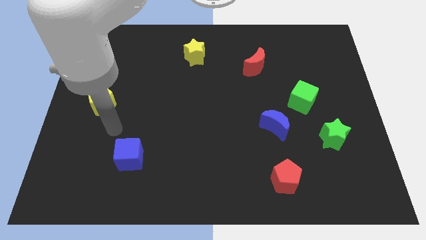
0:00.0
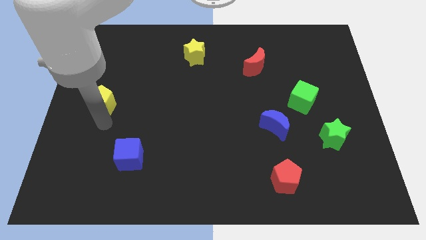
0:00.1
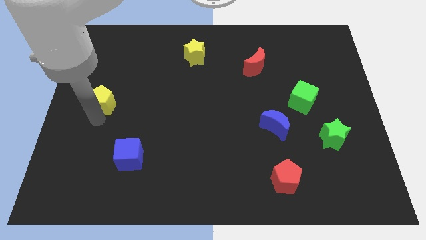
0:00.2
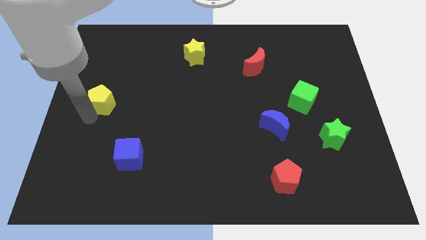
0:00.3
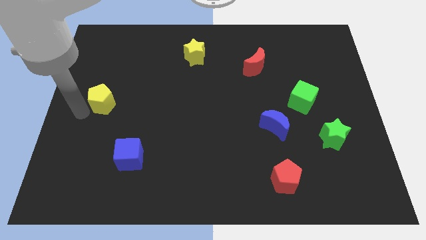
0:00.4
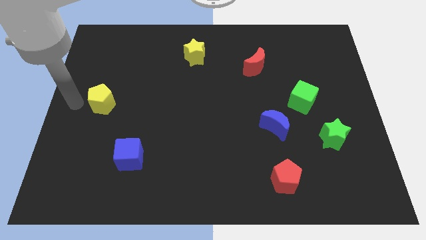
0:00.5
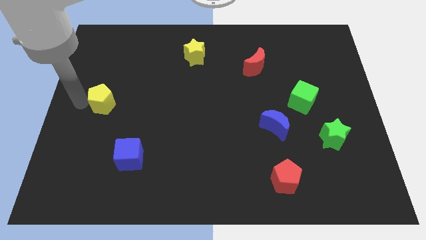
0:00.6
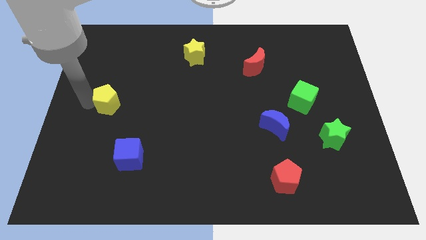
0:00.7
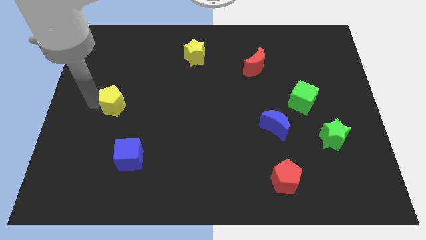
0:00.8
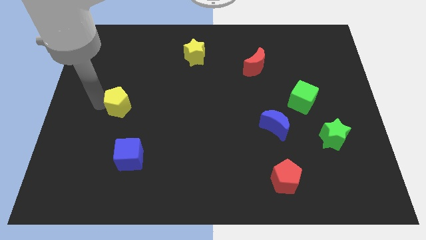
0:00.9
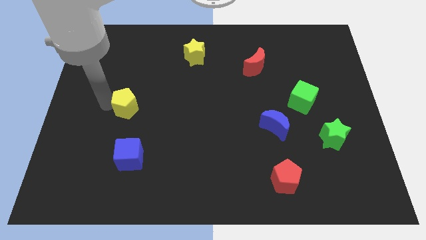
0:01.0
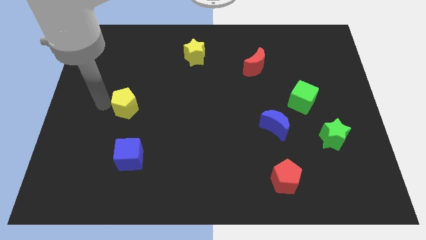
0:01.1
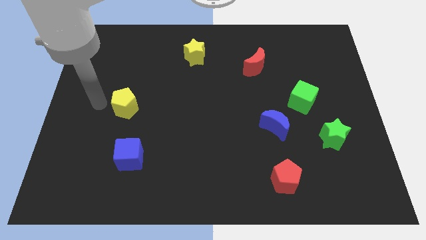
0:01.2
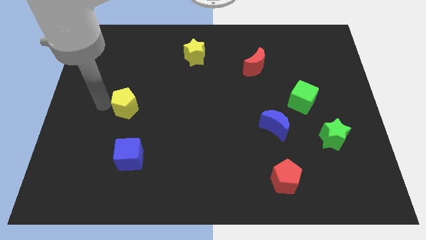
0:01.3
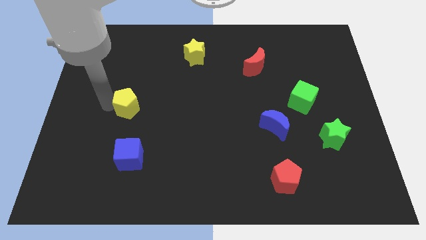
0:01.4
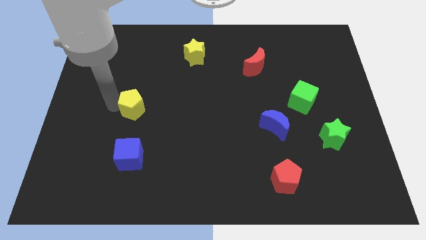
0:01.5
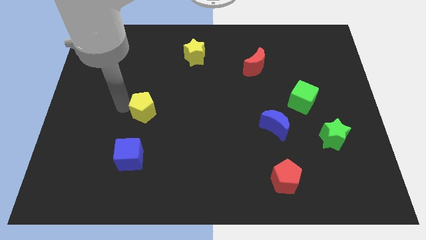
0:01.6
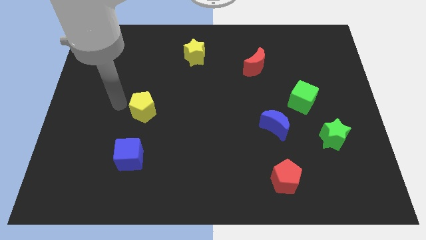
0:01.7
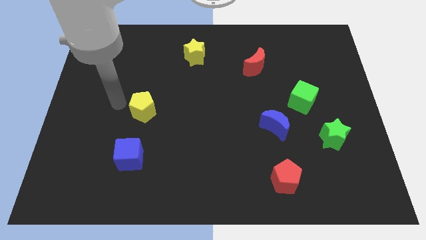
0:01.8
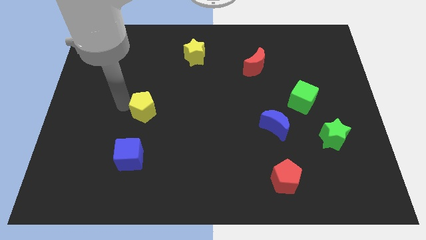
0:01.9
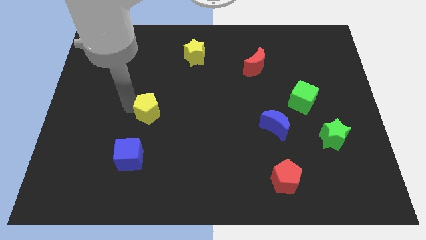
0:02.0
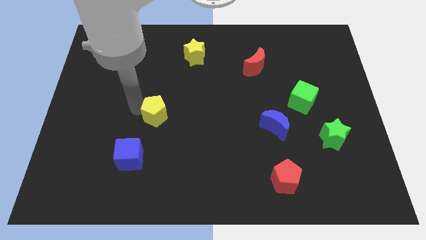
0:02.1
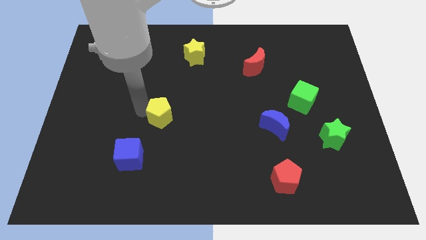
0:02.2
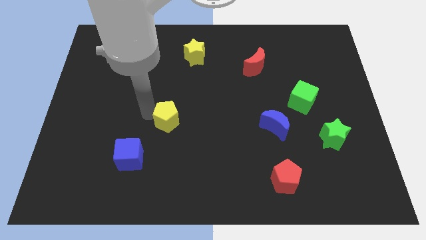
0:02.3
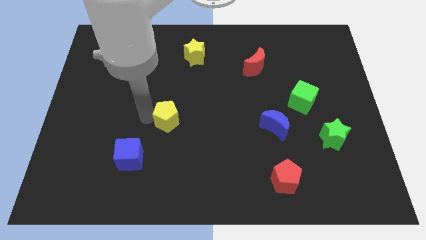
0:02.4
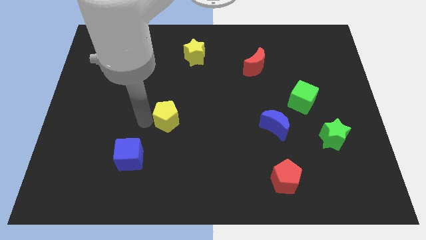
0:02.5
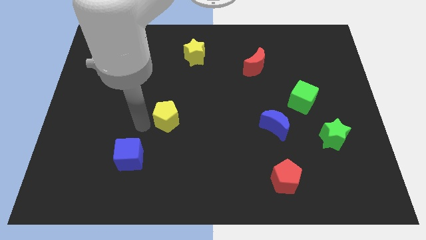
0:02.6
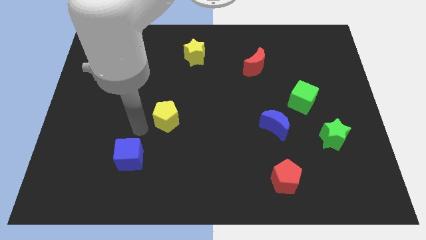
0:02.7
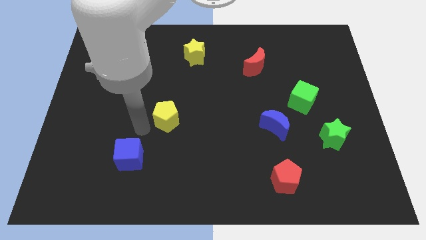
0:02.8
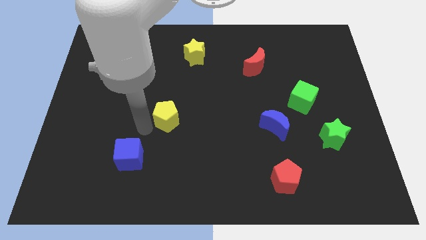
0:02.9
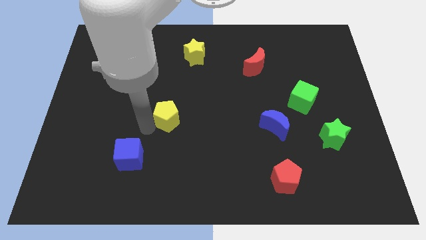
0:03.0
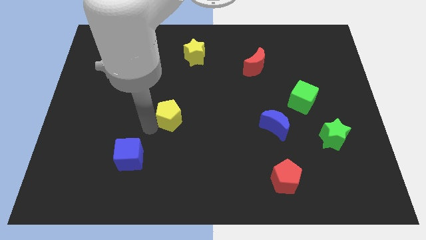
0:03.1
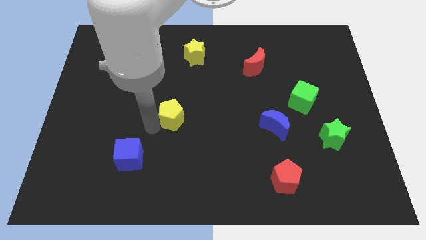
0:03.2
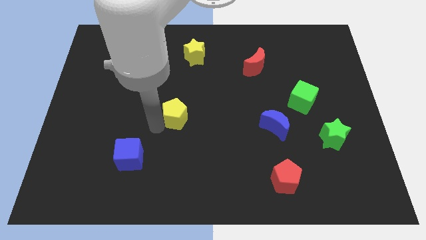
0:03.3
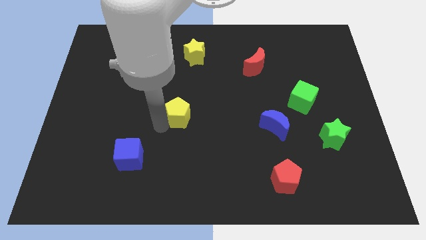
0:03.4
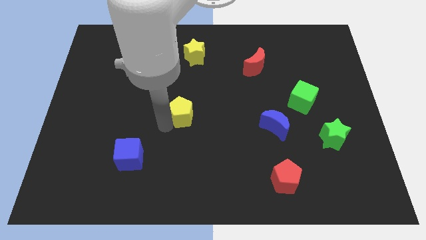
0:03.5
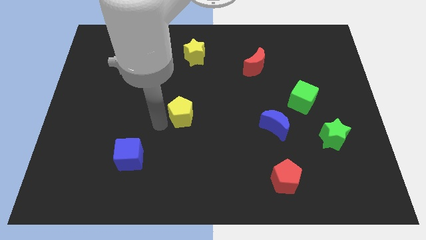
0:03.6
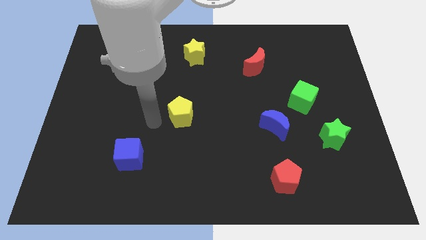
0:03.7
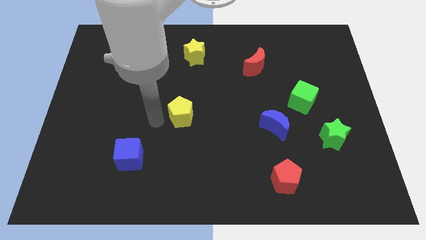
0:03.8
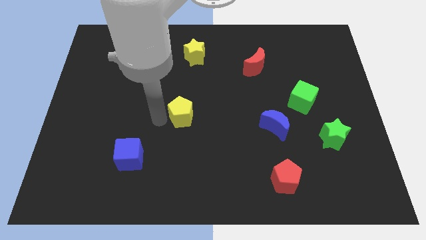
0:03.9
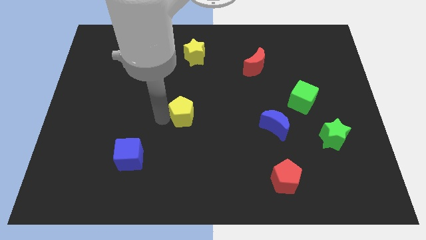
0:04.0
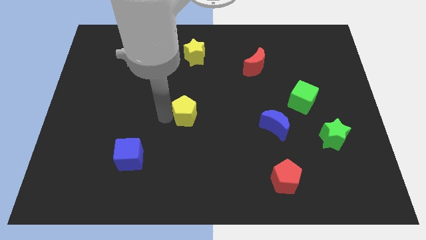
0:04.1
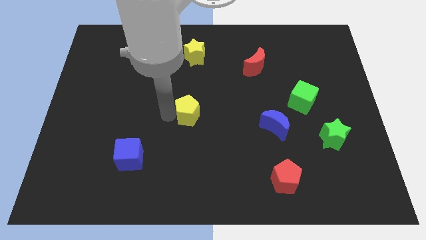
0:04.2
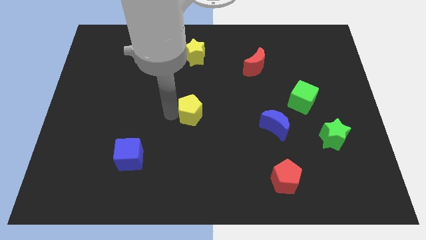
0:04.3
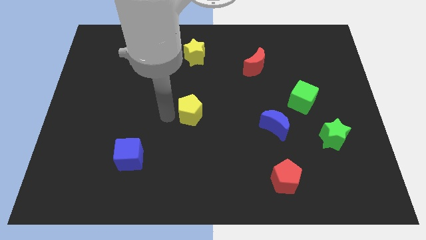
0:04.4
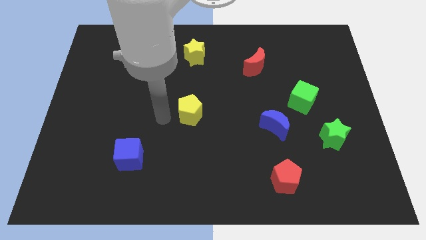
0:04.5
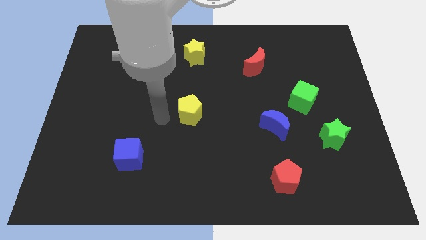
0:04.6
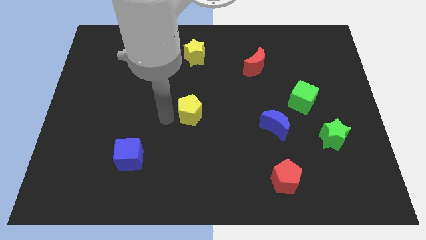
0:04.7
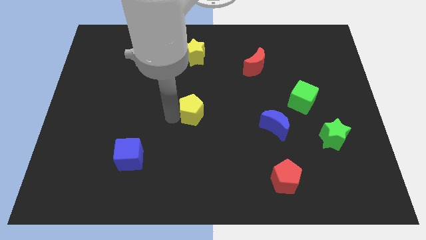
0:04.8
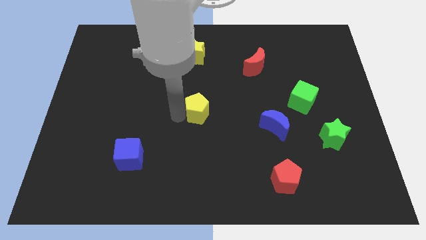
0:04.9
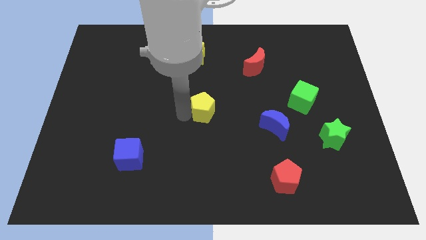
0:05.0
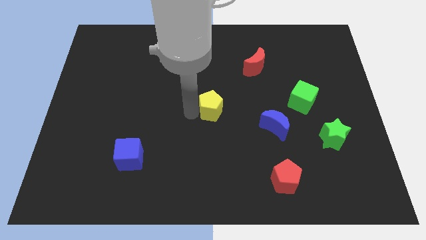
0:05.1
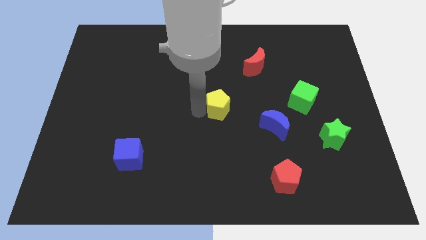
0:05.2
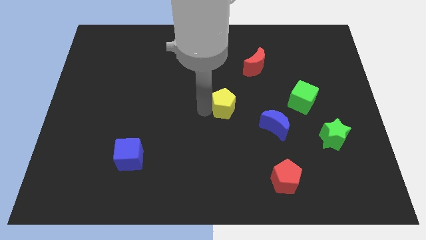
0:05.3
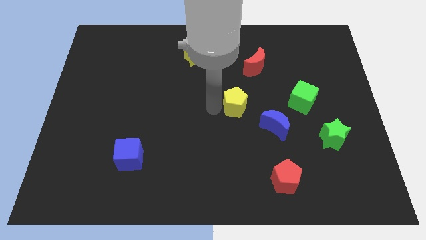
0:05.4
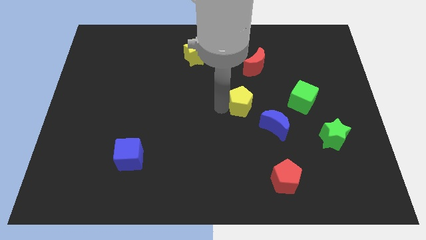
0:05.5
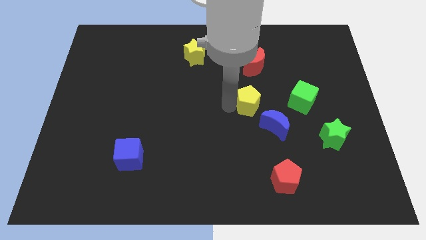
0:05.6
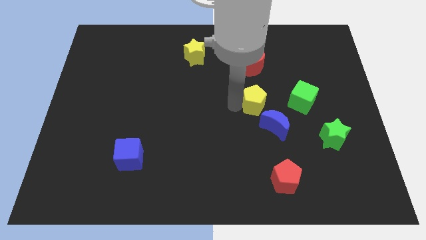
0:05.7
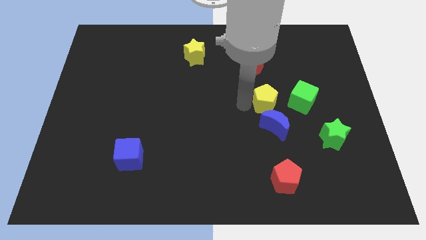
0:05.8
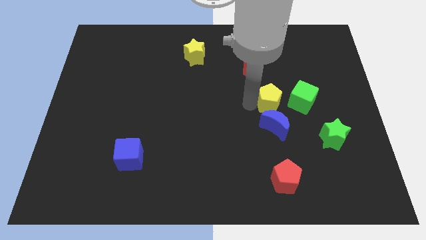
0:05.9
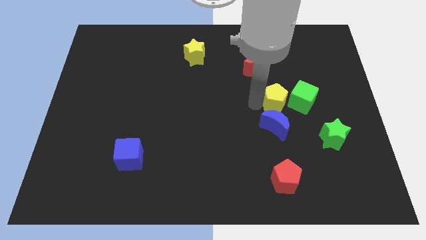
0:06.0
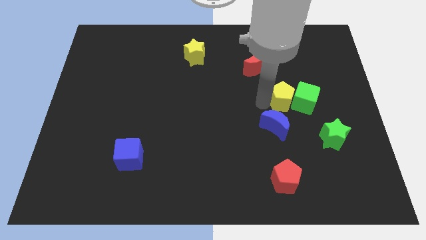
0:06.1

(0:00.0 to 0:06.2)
push the yellow pentagon next to the green cube

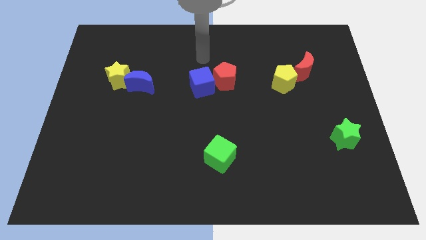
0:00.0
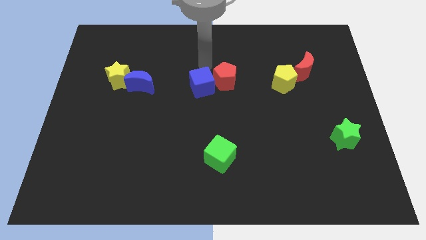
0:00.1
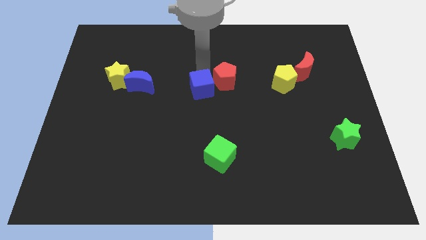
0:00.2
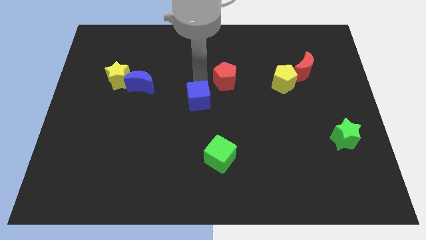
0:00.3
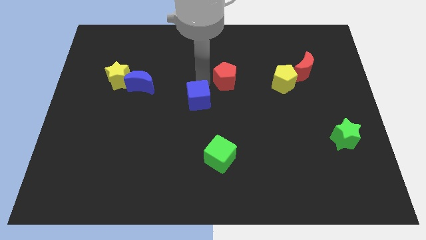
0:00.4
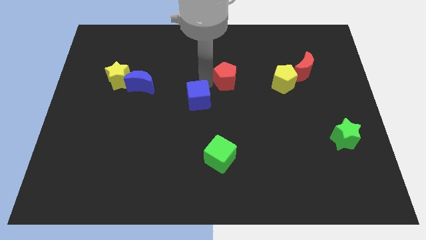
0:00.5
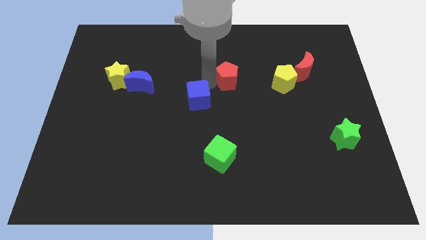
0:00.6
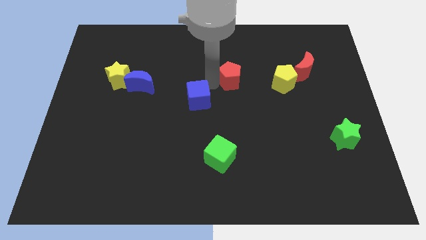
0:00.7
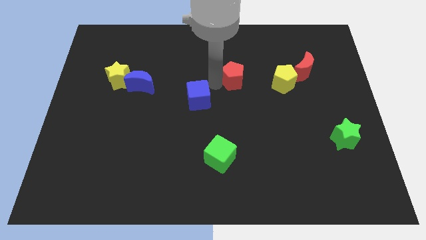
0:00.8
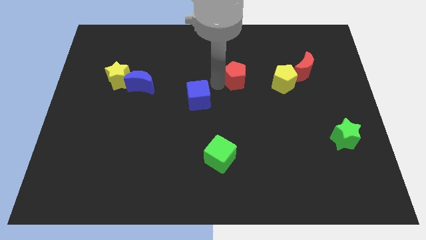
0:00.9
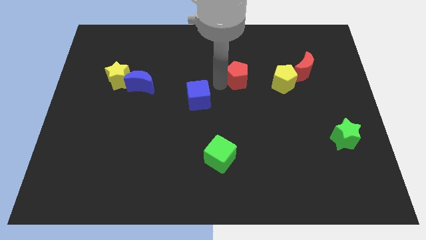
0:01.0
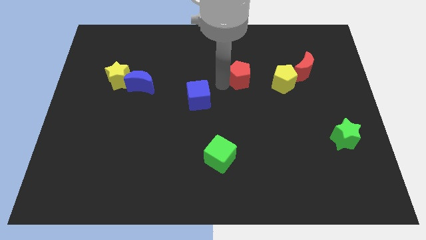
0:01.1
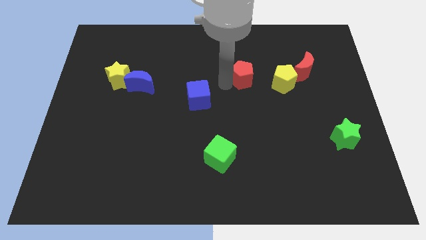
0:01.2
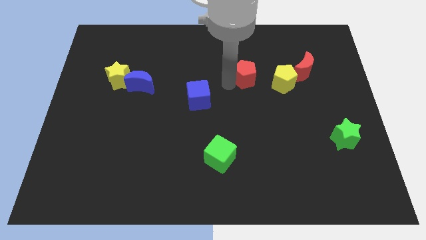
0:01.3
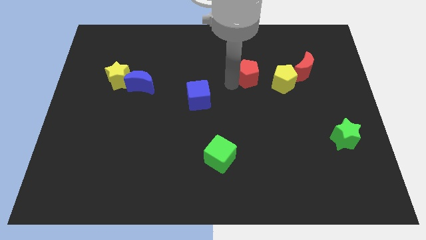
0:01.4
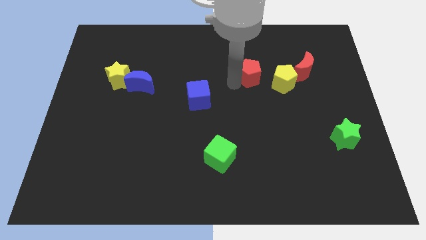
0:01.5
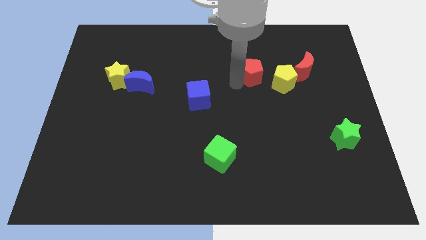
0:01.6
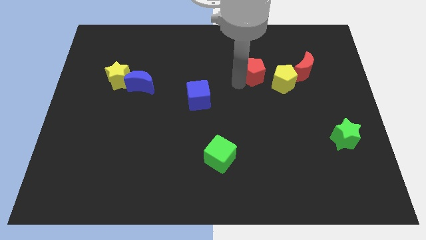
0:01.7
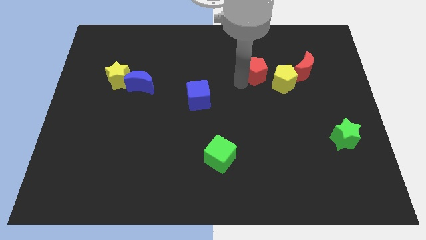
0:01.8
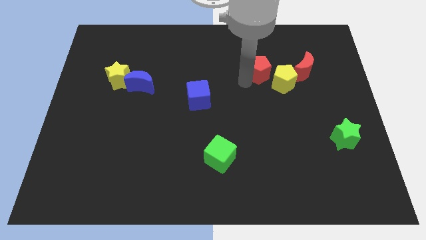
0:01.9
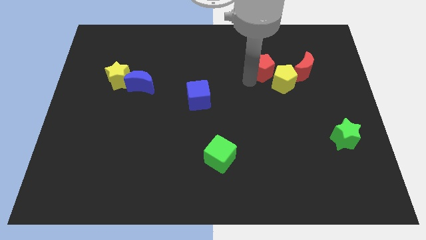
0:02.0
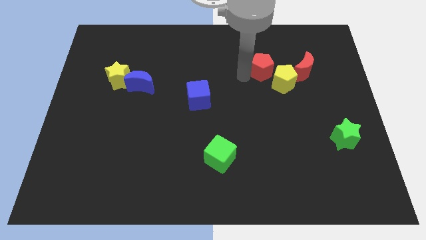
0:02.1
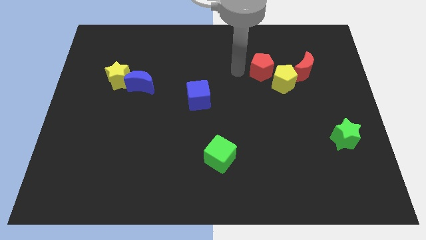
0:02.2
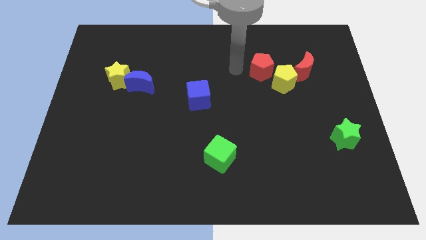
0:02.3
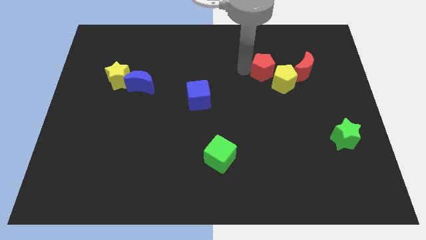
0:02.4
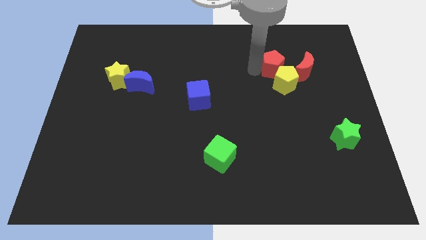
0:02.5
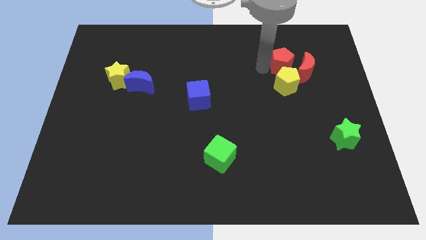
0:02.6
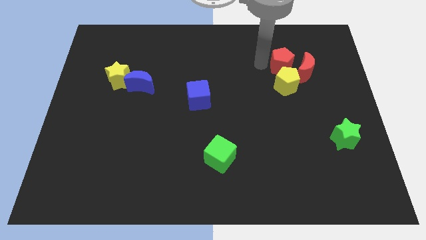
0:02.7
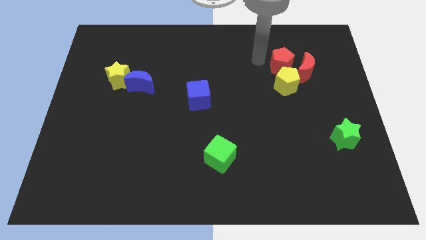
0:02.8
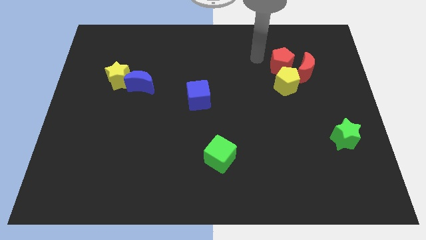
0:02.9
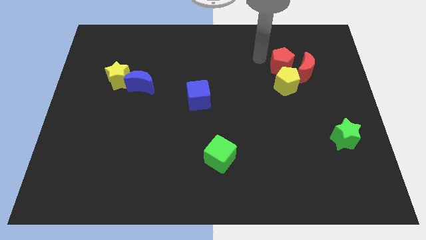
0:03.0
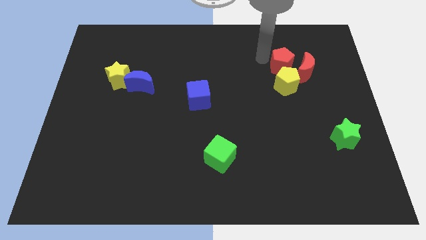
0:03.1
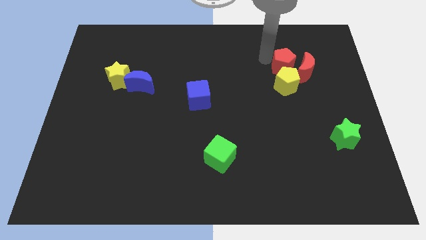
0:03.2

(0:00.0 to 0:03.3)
slide the red pentagon next to the red moon
